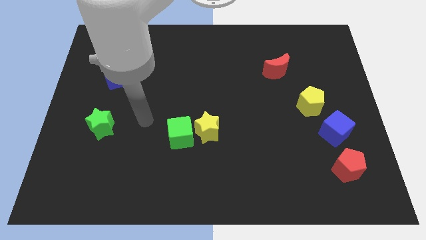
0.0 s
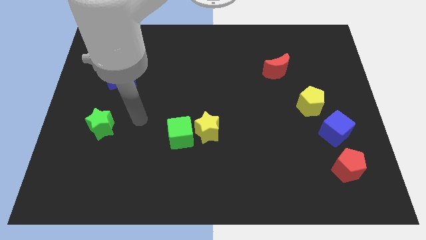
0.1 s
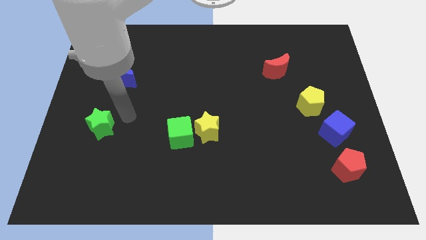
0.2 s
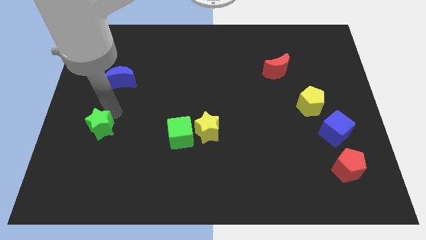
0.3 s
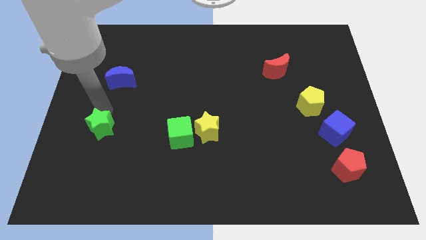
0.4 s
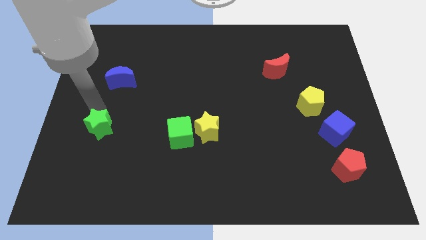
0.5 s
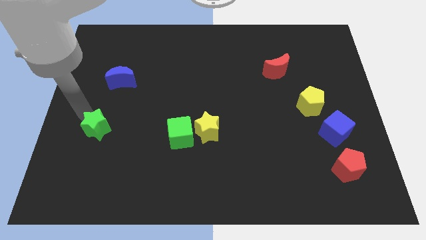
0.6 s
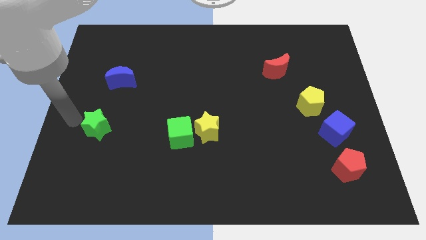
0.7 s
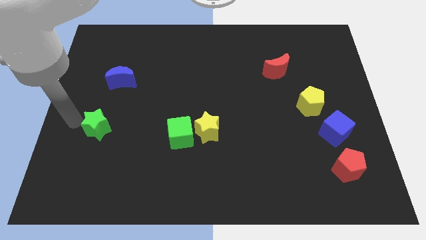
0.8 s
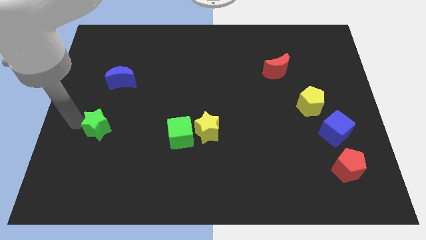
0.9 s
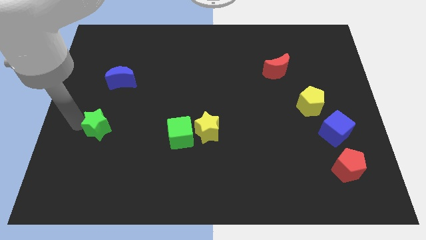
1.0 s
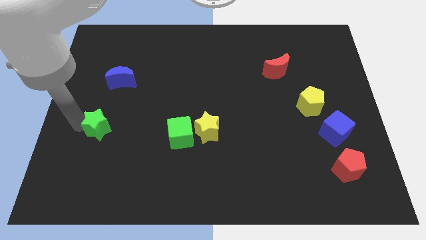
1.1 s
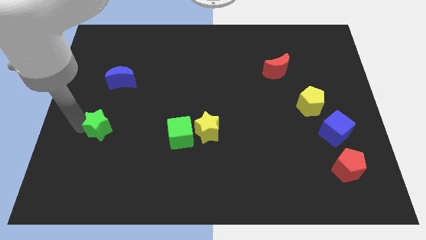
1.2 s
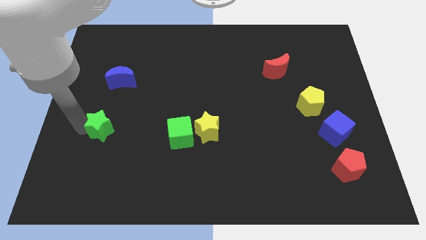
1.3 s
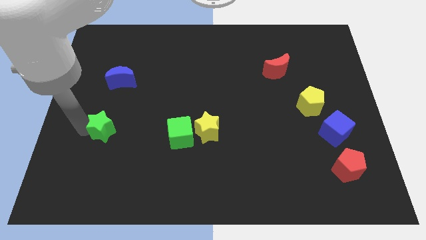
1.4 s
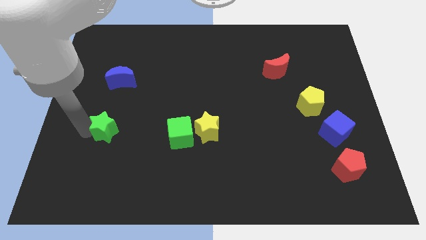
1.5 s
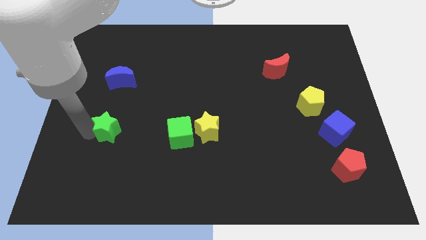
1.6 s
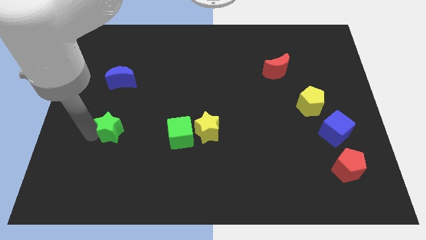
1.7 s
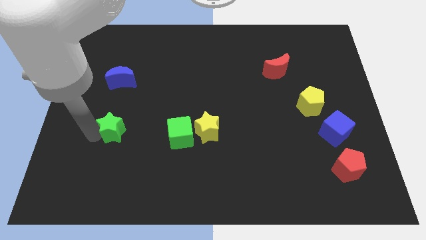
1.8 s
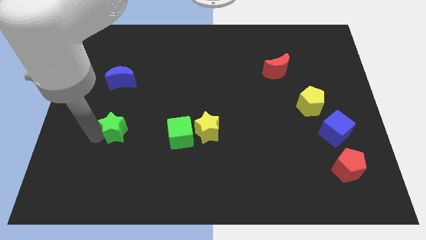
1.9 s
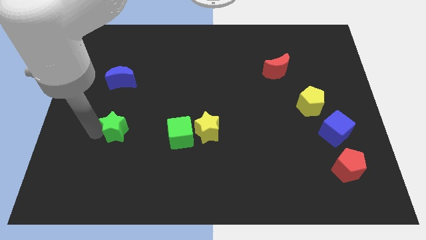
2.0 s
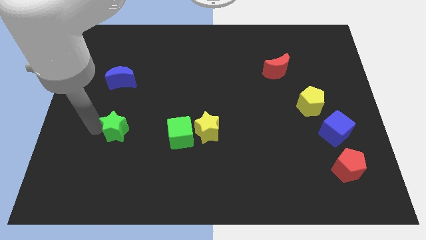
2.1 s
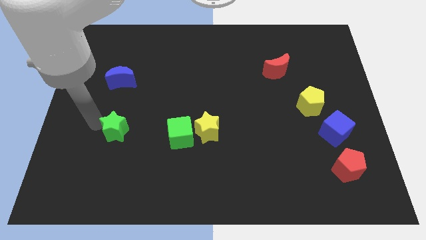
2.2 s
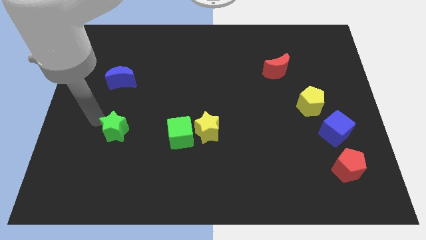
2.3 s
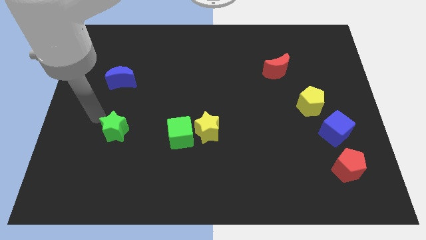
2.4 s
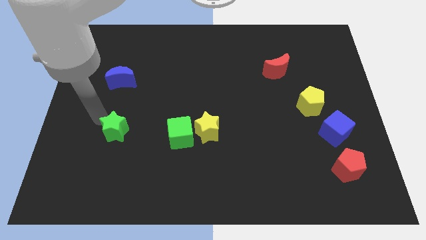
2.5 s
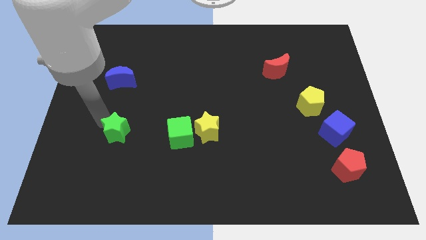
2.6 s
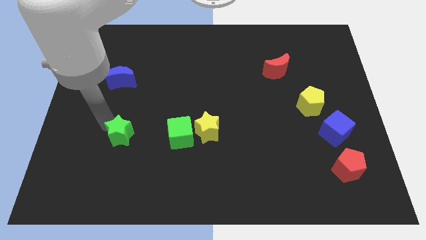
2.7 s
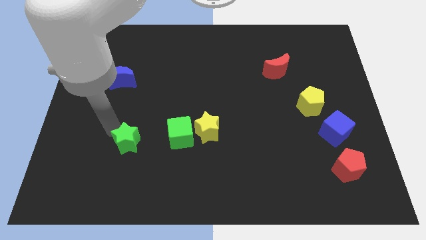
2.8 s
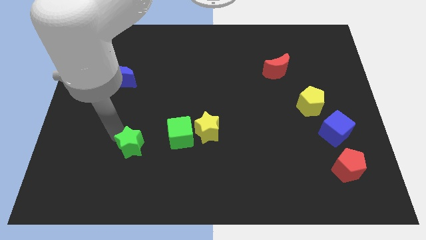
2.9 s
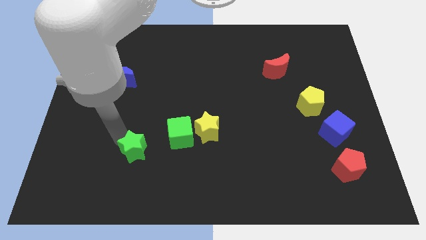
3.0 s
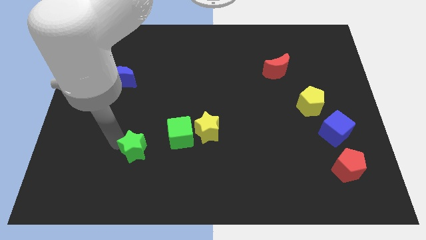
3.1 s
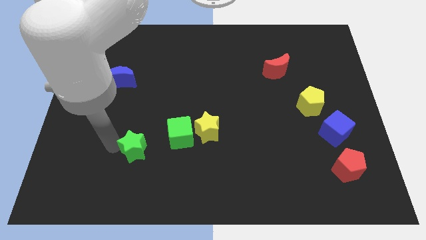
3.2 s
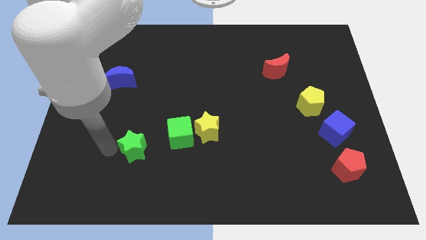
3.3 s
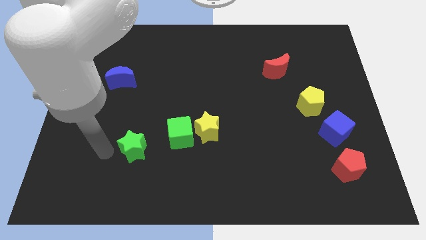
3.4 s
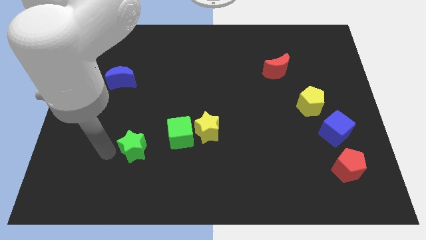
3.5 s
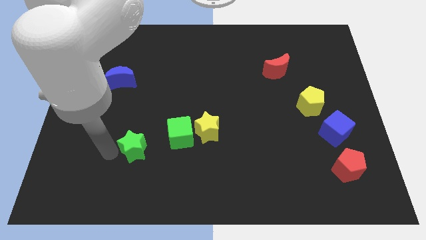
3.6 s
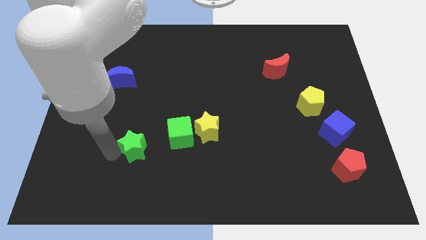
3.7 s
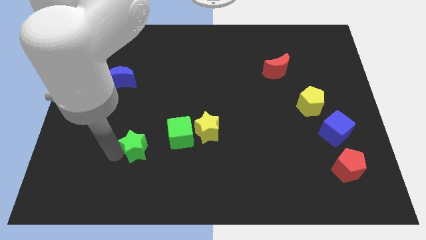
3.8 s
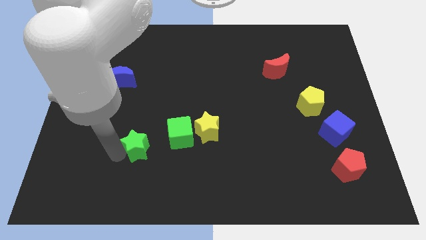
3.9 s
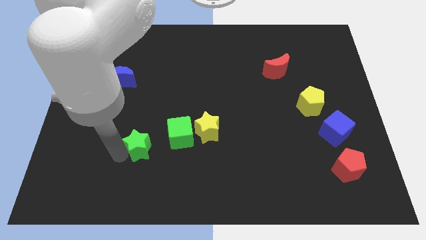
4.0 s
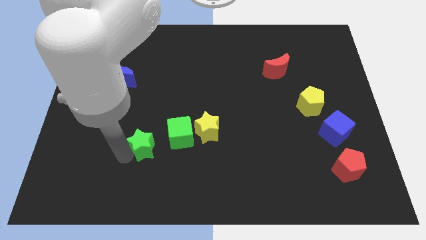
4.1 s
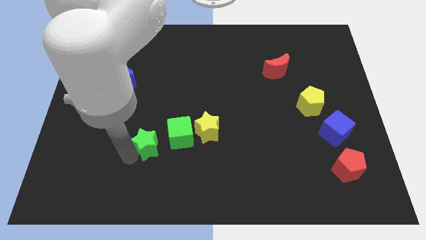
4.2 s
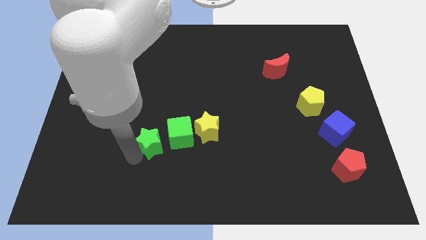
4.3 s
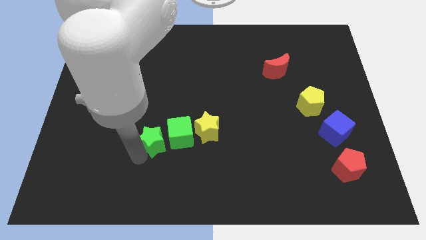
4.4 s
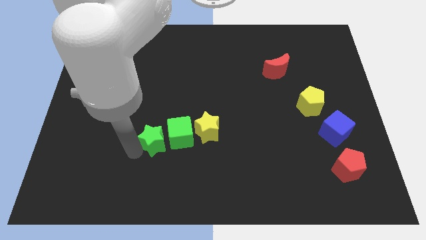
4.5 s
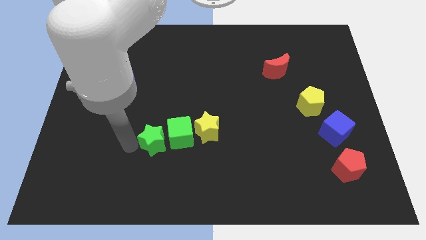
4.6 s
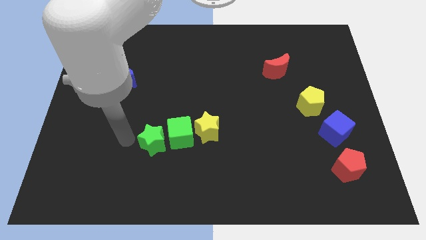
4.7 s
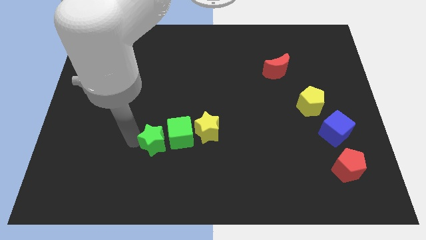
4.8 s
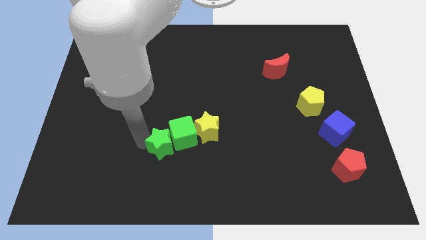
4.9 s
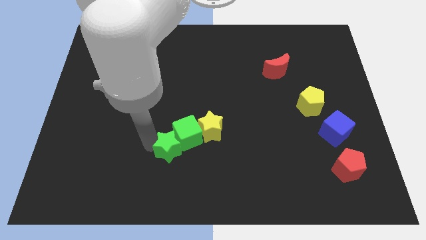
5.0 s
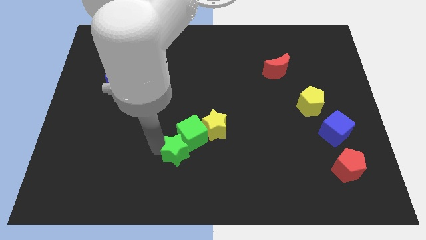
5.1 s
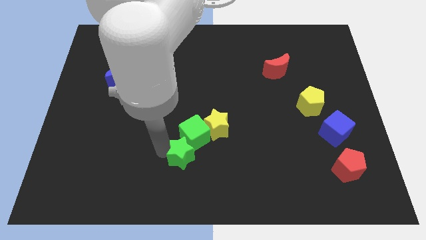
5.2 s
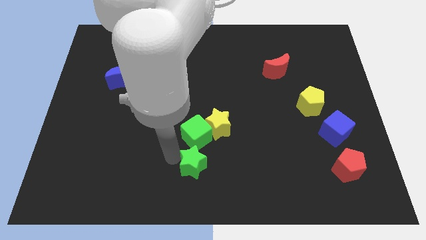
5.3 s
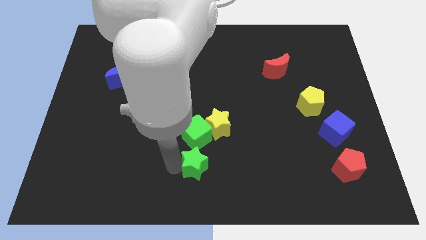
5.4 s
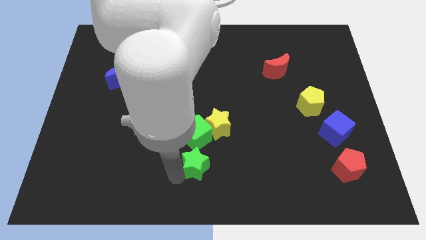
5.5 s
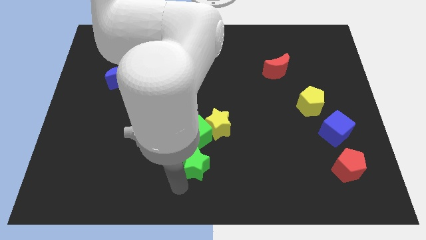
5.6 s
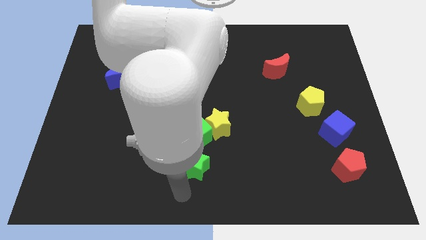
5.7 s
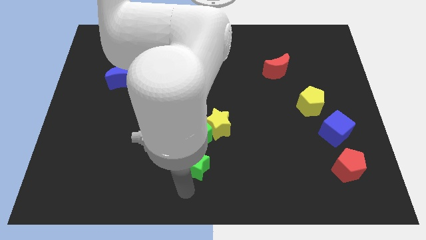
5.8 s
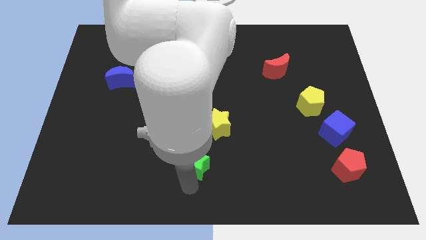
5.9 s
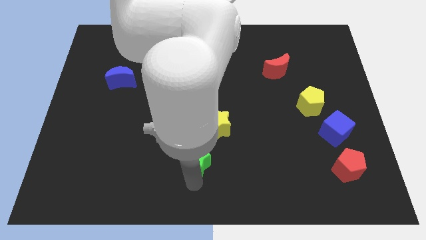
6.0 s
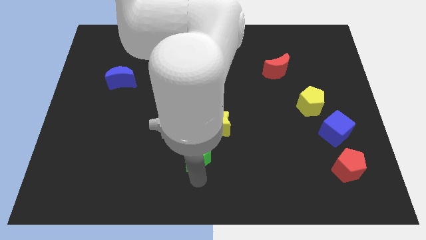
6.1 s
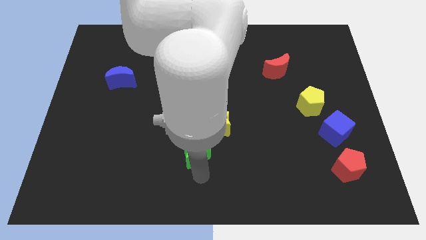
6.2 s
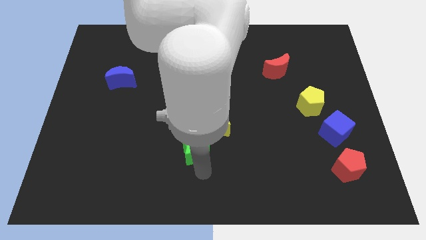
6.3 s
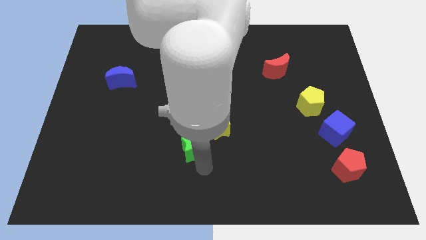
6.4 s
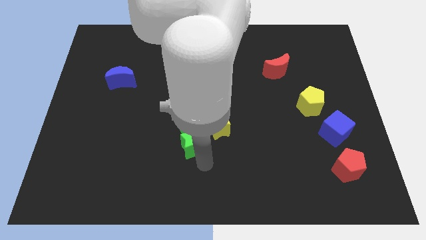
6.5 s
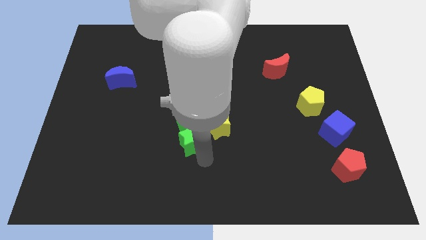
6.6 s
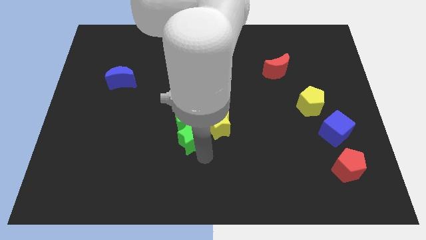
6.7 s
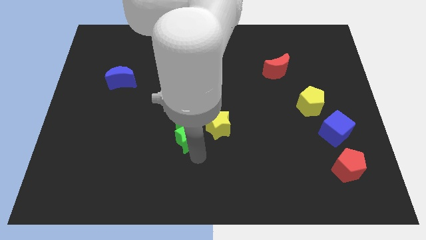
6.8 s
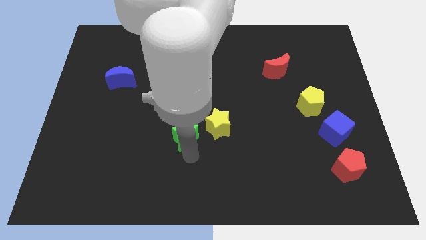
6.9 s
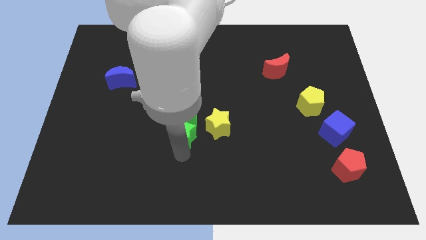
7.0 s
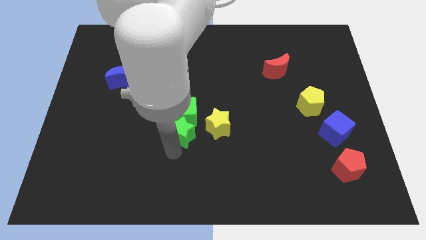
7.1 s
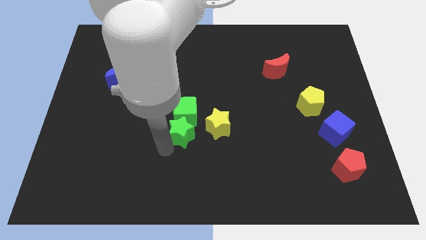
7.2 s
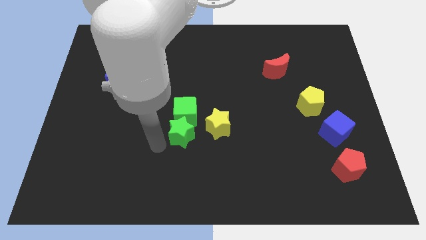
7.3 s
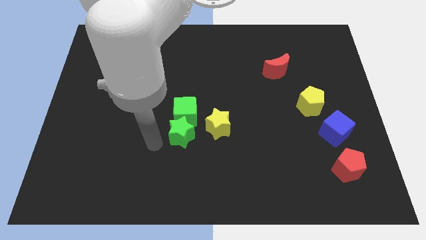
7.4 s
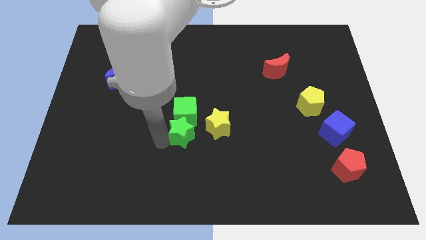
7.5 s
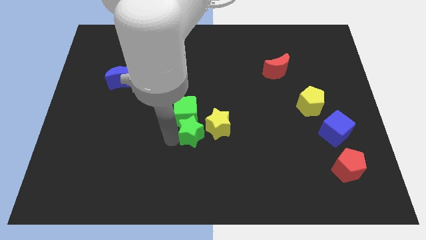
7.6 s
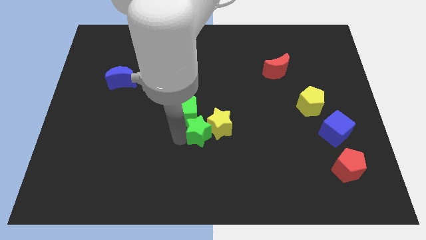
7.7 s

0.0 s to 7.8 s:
put the green star to the yellow star
